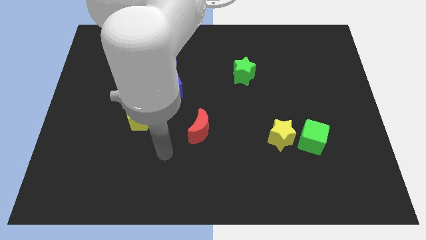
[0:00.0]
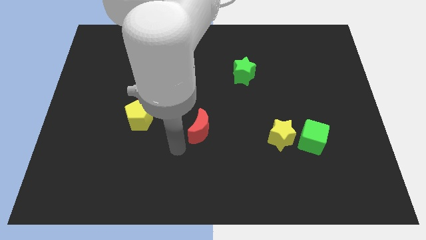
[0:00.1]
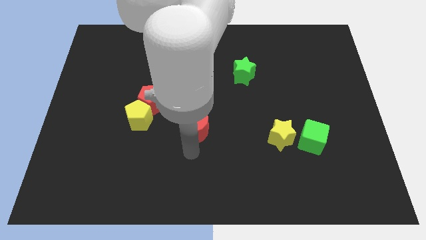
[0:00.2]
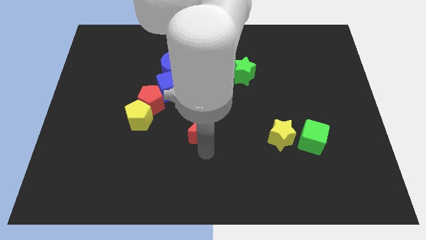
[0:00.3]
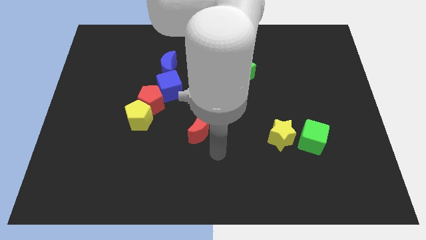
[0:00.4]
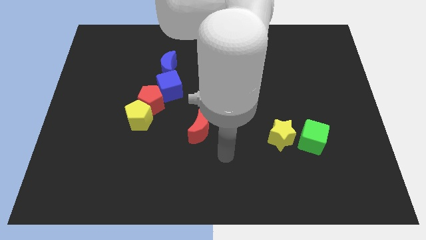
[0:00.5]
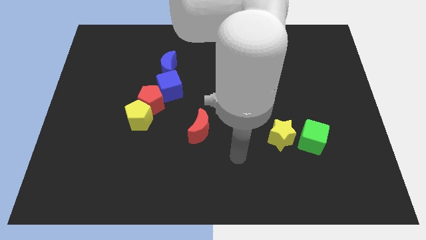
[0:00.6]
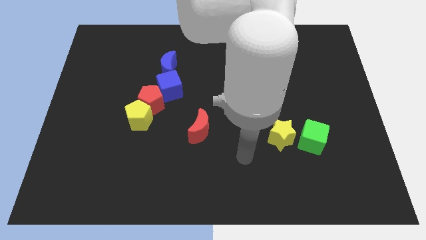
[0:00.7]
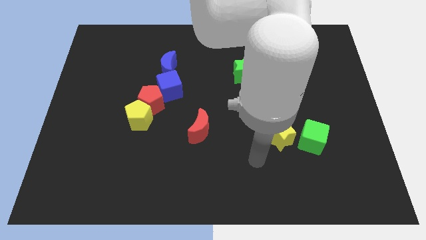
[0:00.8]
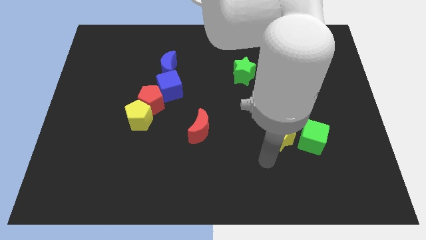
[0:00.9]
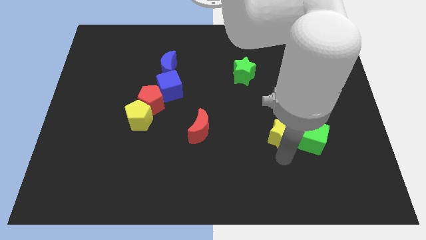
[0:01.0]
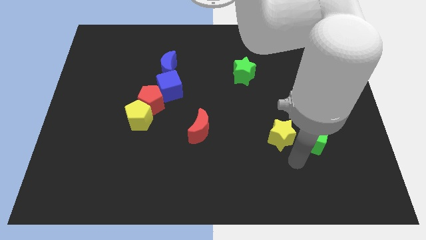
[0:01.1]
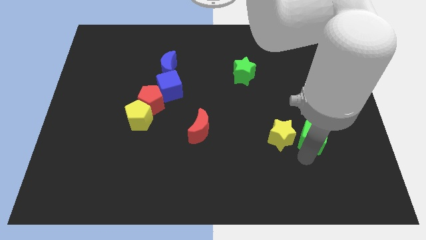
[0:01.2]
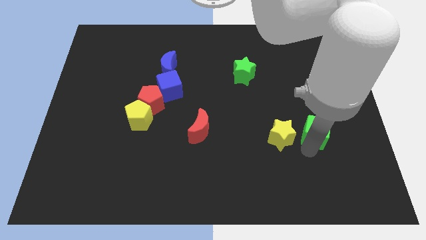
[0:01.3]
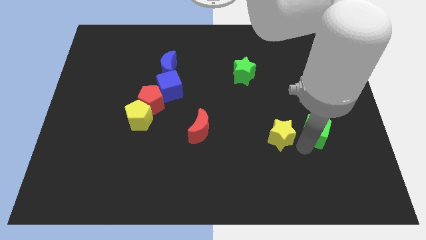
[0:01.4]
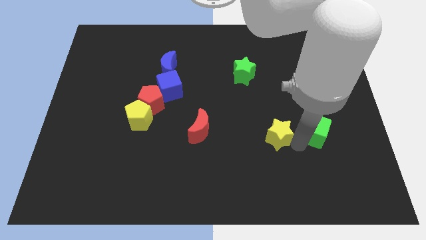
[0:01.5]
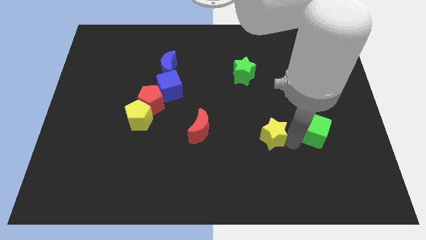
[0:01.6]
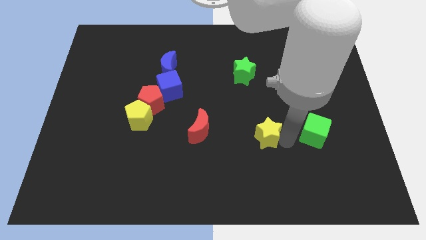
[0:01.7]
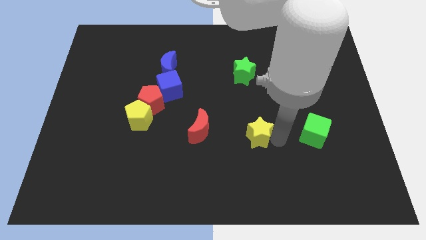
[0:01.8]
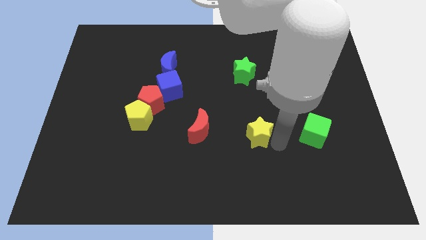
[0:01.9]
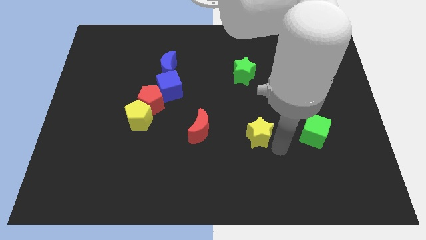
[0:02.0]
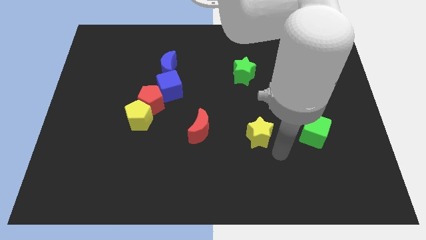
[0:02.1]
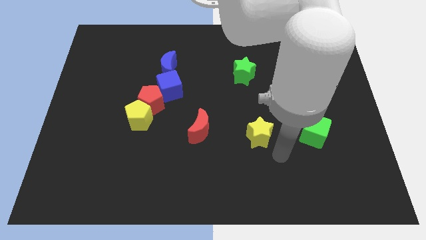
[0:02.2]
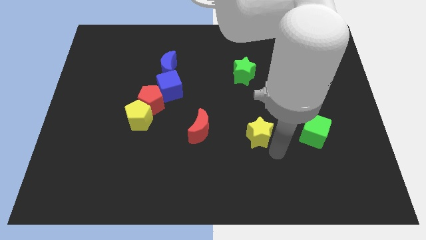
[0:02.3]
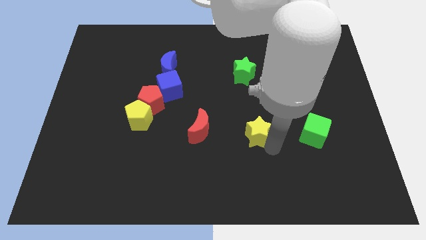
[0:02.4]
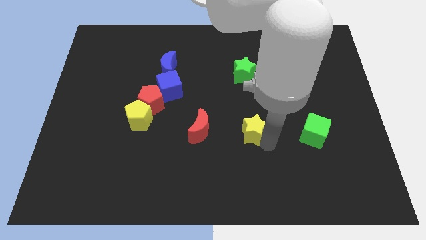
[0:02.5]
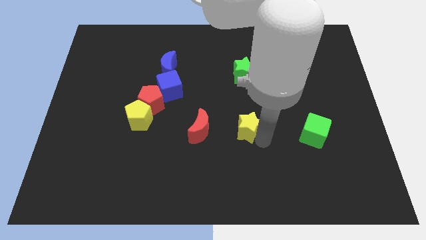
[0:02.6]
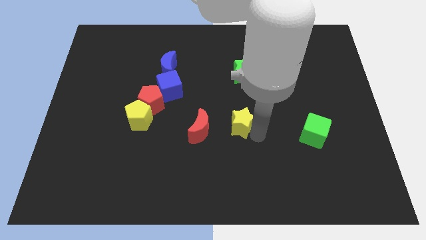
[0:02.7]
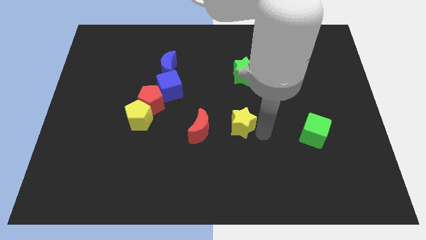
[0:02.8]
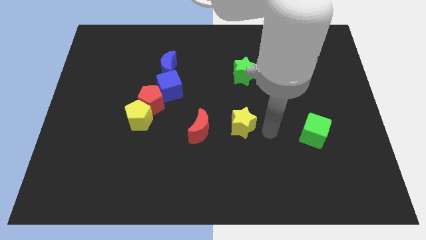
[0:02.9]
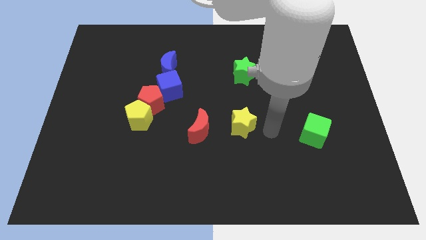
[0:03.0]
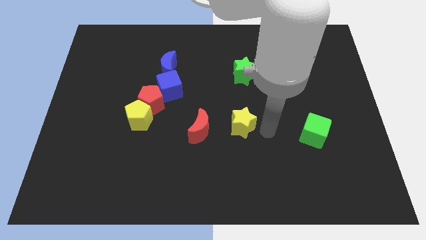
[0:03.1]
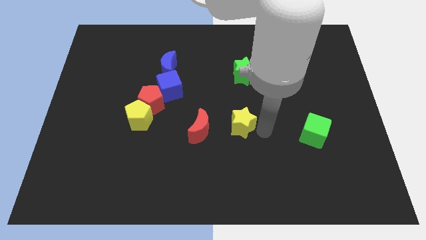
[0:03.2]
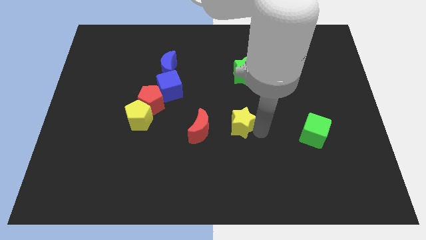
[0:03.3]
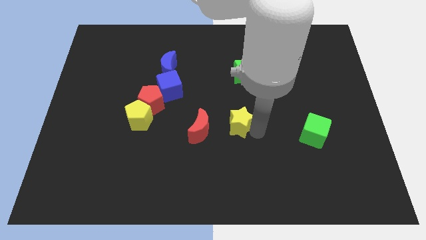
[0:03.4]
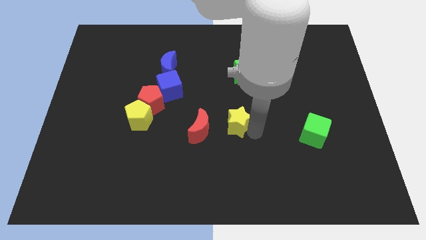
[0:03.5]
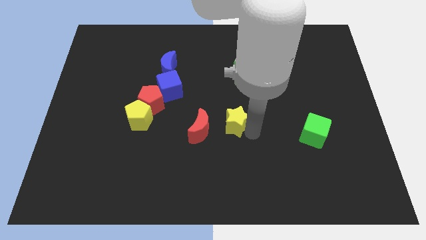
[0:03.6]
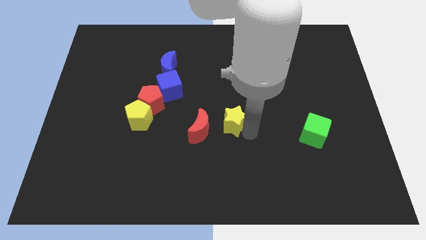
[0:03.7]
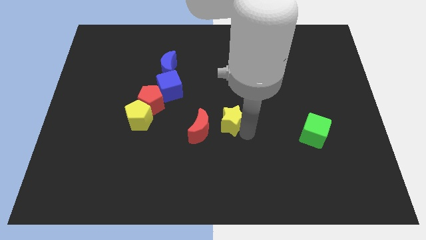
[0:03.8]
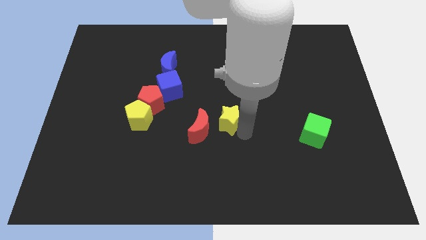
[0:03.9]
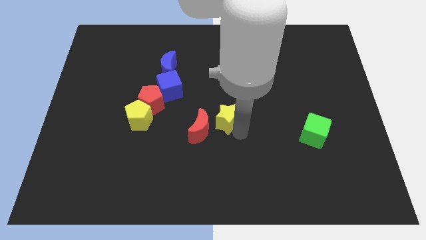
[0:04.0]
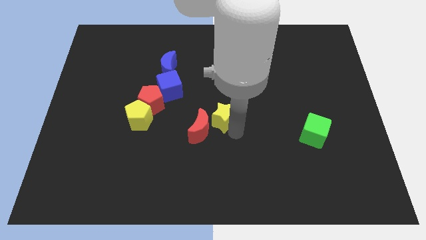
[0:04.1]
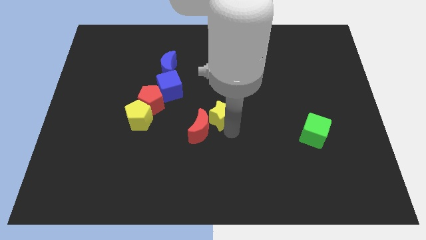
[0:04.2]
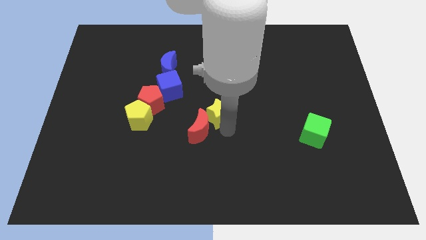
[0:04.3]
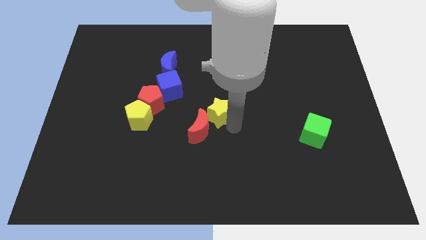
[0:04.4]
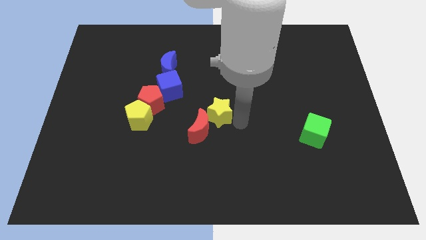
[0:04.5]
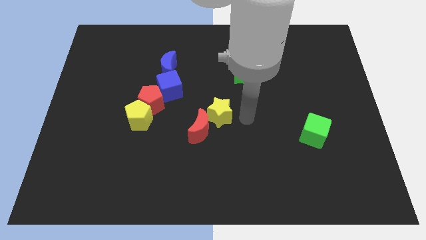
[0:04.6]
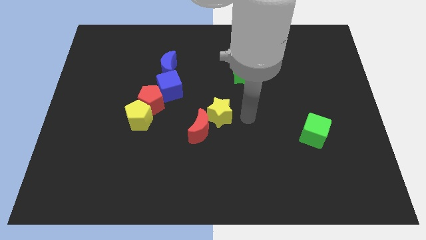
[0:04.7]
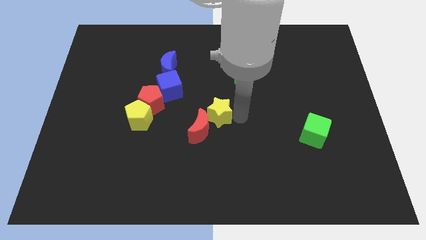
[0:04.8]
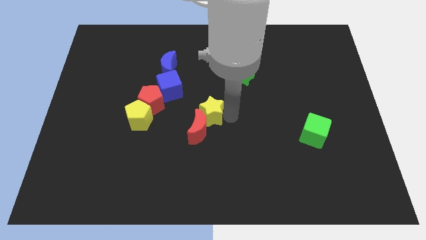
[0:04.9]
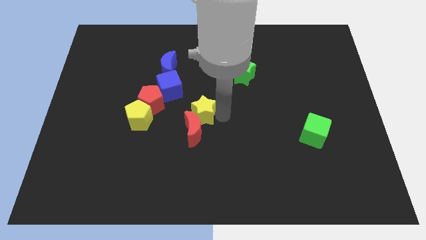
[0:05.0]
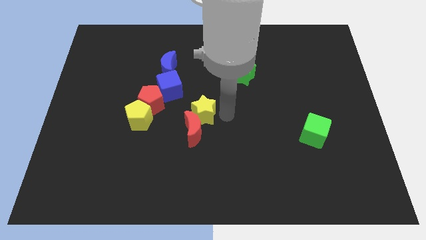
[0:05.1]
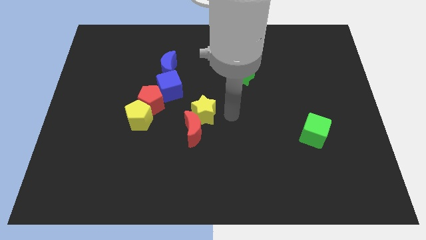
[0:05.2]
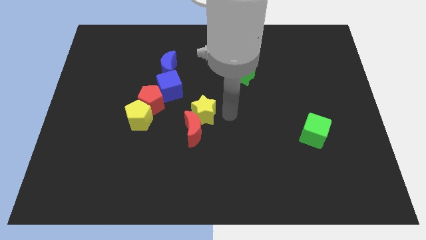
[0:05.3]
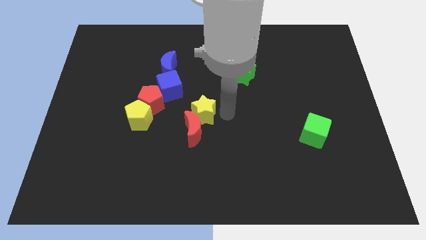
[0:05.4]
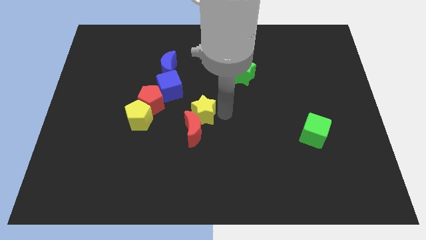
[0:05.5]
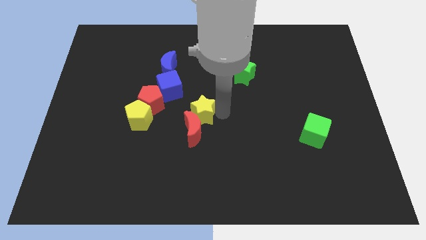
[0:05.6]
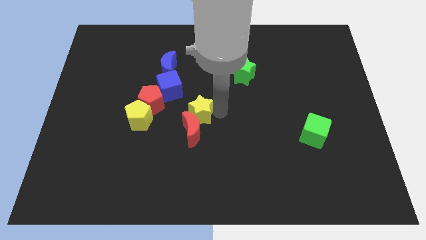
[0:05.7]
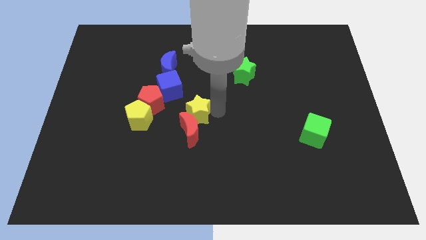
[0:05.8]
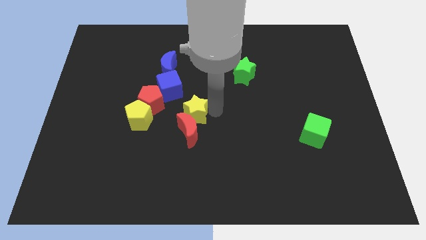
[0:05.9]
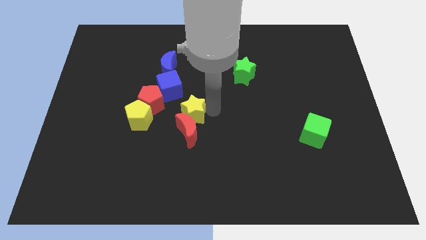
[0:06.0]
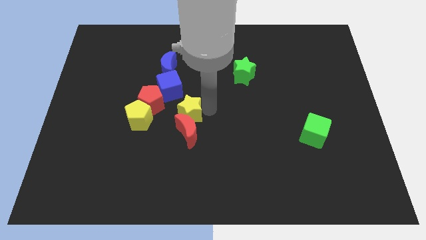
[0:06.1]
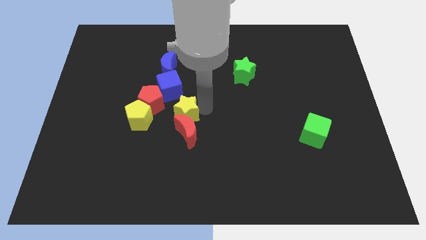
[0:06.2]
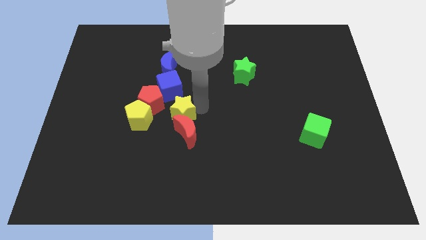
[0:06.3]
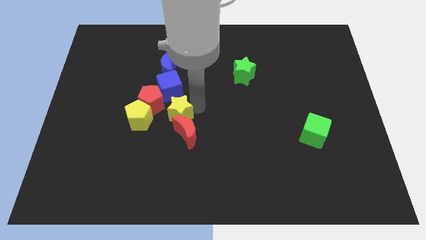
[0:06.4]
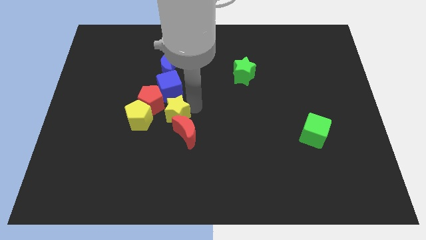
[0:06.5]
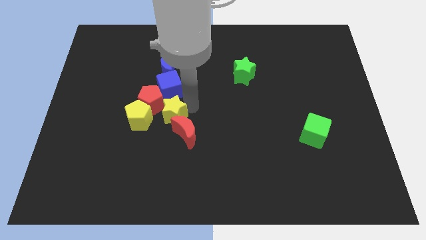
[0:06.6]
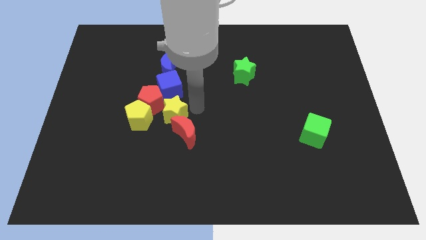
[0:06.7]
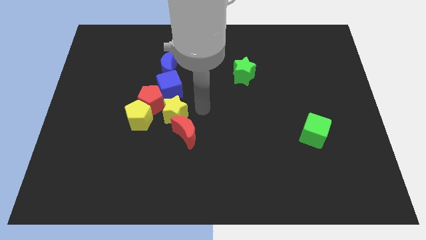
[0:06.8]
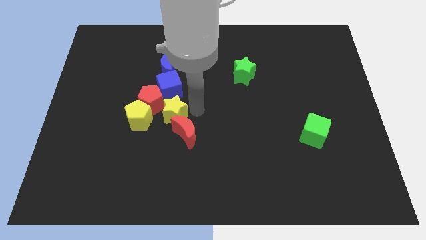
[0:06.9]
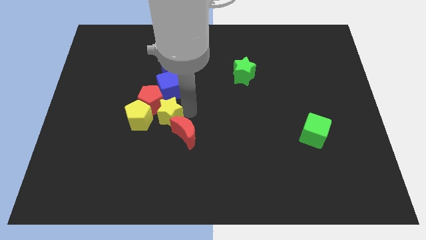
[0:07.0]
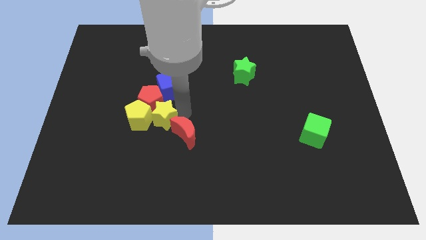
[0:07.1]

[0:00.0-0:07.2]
slide the yellow star towards the yellow pentagon

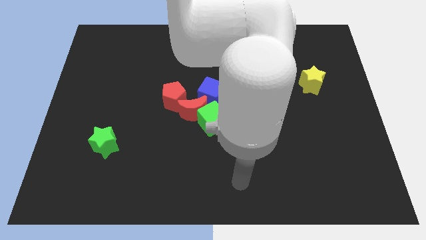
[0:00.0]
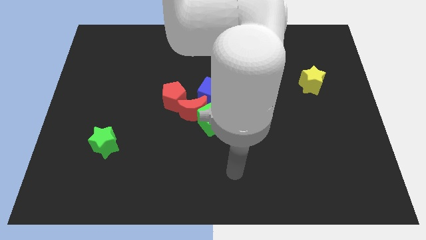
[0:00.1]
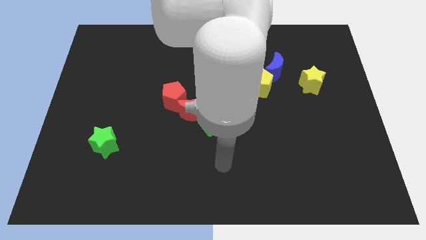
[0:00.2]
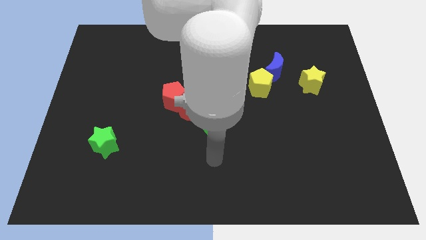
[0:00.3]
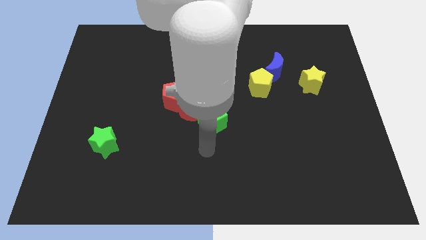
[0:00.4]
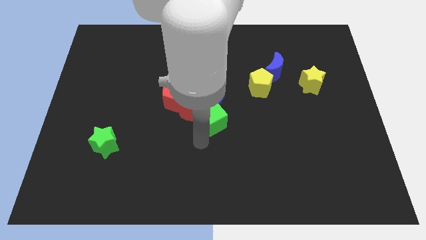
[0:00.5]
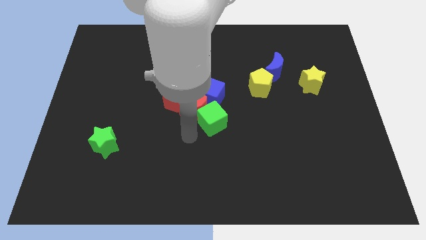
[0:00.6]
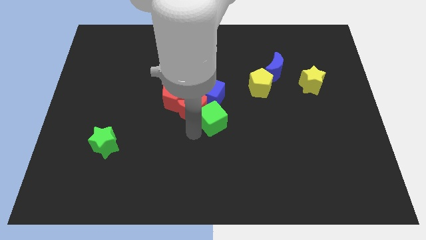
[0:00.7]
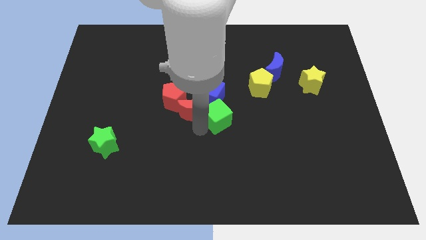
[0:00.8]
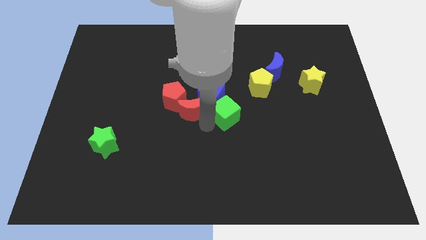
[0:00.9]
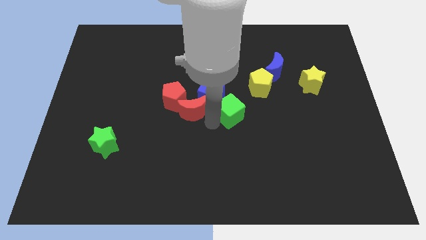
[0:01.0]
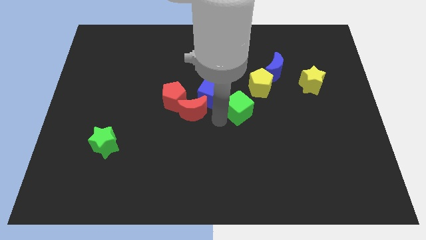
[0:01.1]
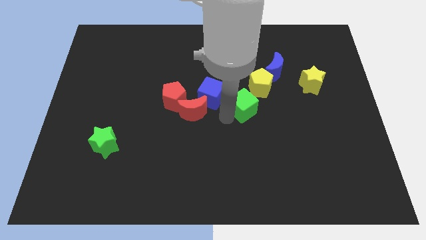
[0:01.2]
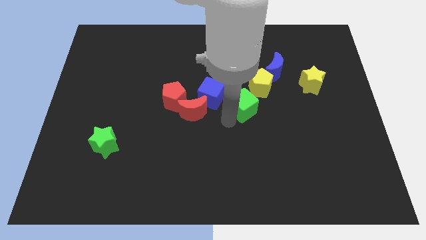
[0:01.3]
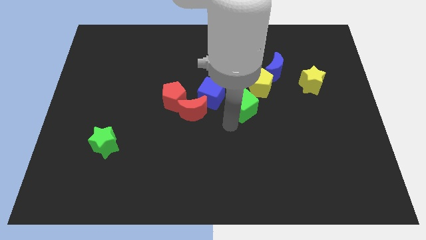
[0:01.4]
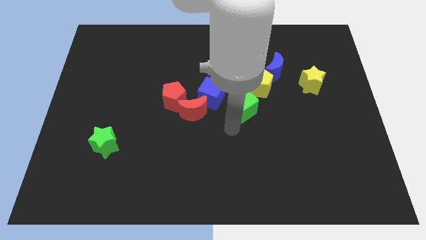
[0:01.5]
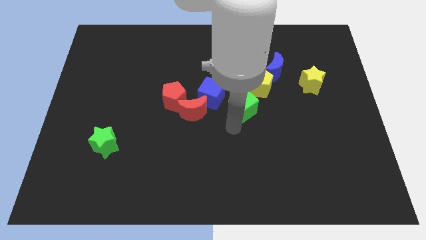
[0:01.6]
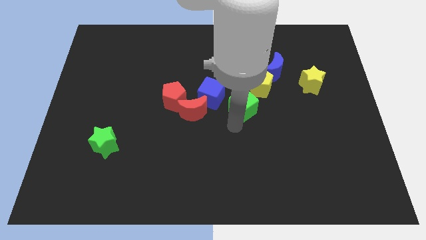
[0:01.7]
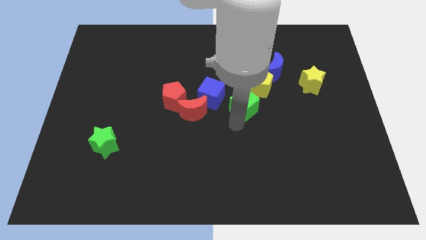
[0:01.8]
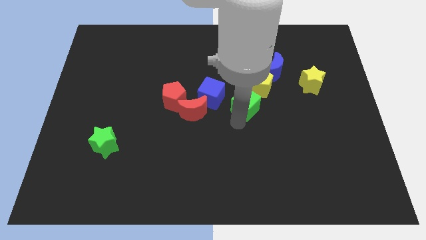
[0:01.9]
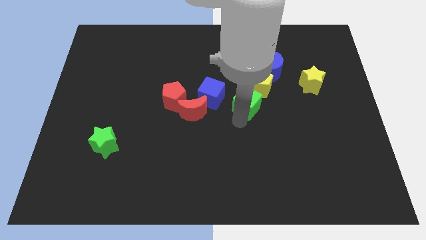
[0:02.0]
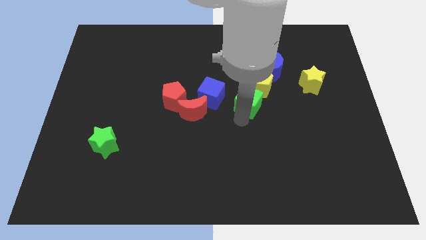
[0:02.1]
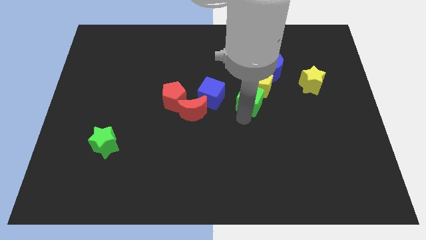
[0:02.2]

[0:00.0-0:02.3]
move the green cube next to the yellow pentagon
